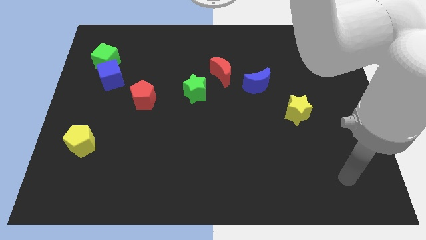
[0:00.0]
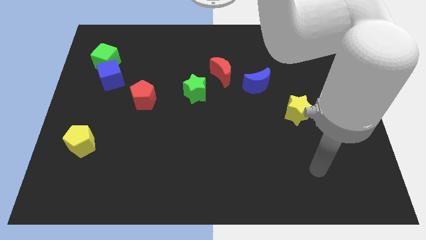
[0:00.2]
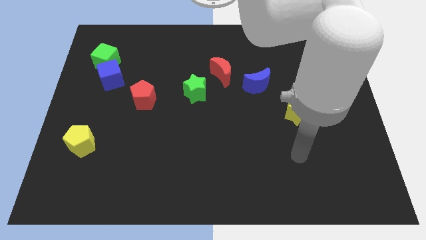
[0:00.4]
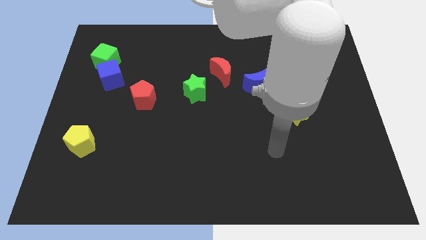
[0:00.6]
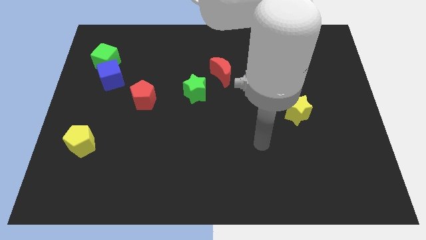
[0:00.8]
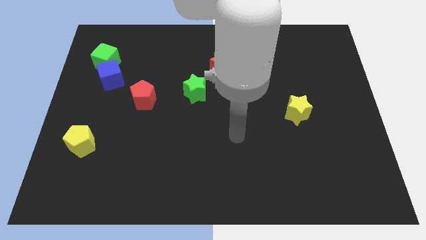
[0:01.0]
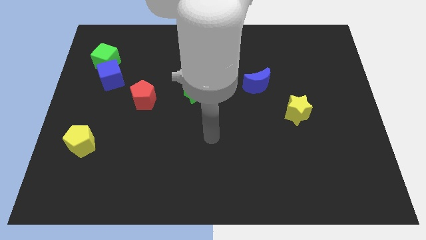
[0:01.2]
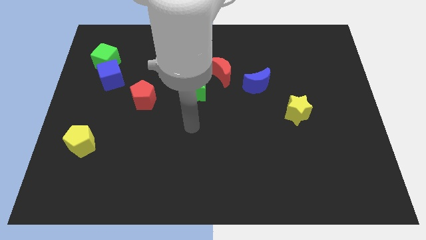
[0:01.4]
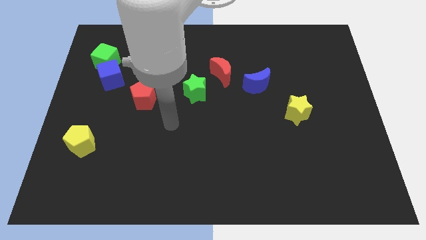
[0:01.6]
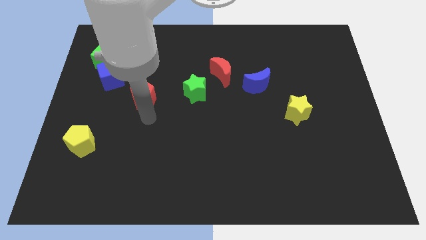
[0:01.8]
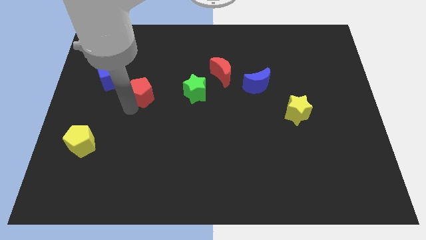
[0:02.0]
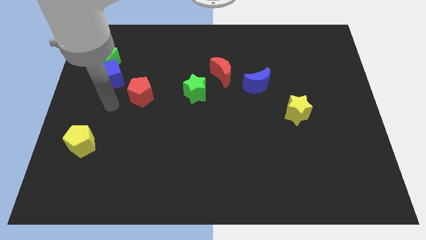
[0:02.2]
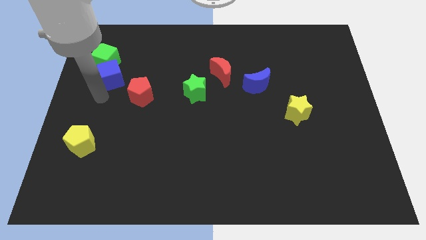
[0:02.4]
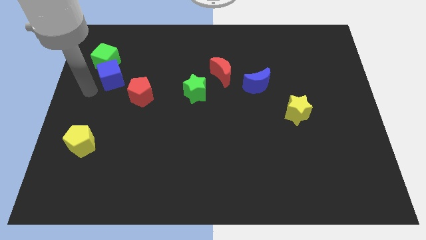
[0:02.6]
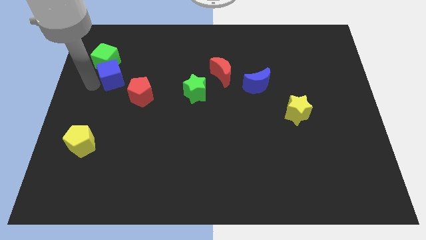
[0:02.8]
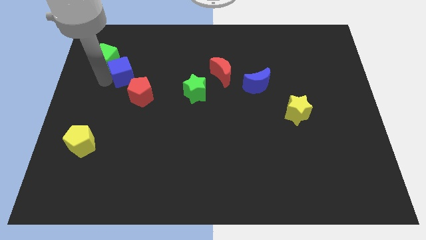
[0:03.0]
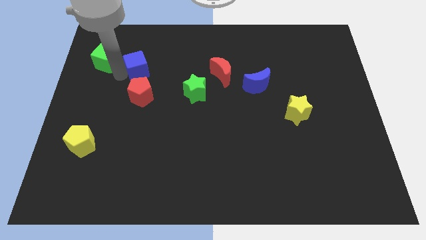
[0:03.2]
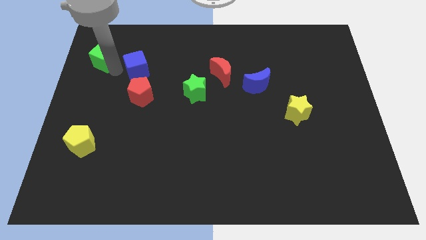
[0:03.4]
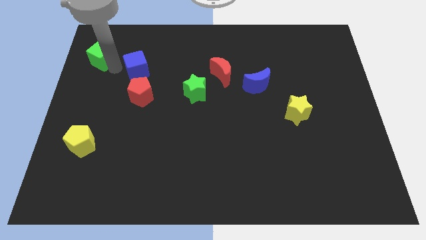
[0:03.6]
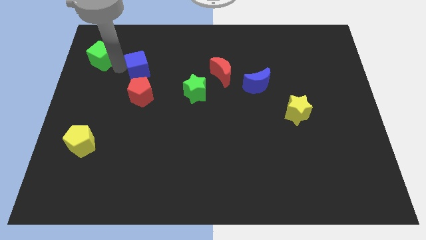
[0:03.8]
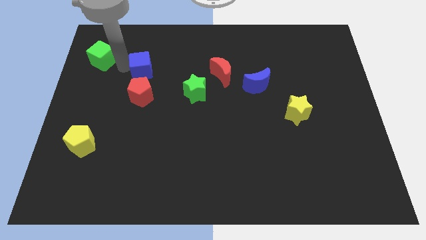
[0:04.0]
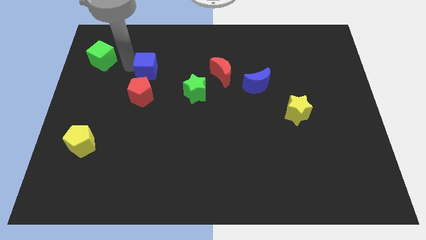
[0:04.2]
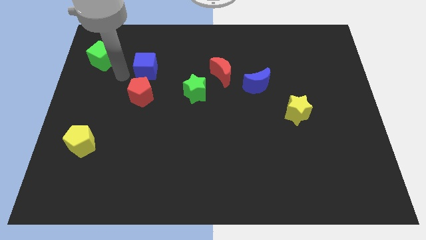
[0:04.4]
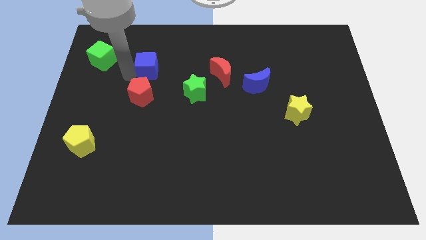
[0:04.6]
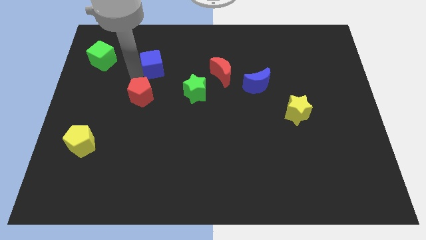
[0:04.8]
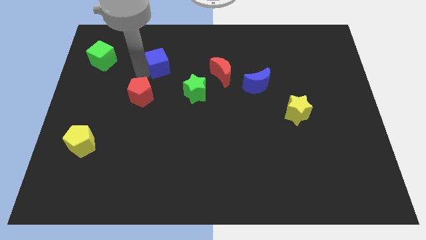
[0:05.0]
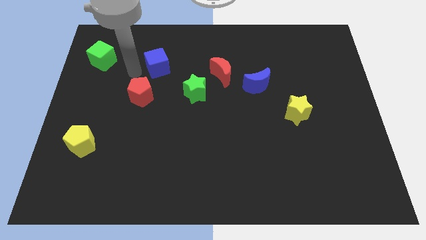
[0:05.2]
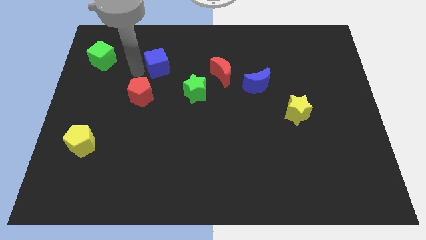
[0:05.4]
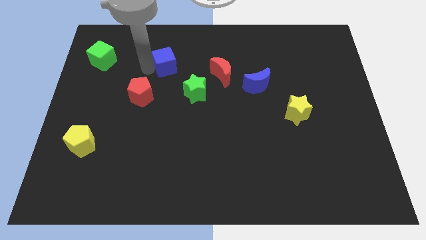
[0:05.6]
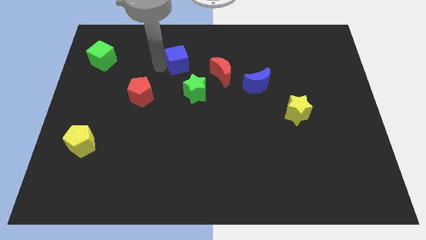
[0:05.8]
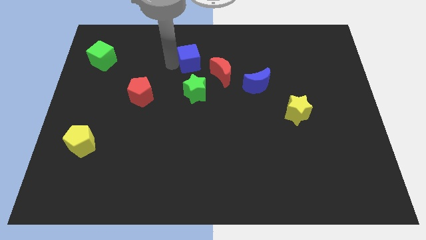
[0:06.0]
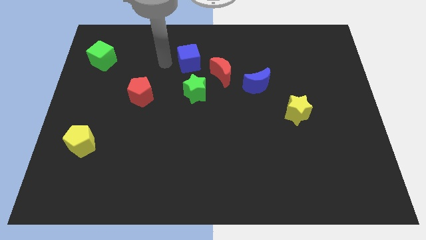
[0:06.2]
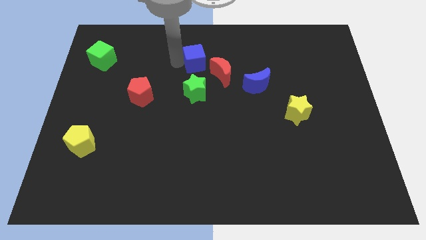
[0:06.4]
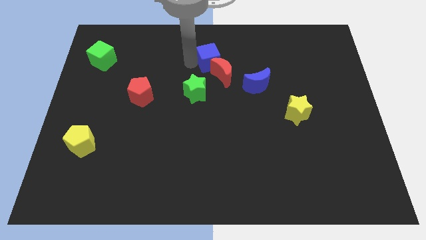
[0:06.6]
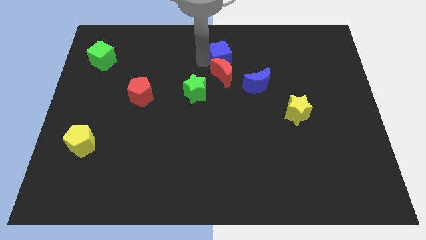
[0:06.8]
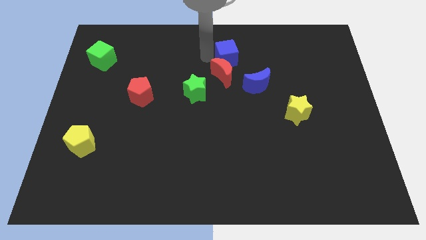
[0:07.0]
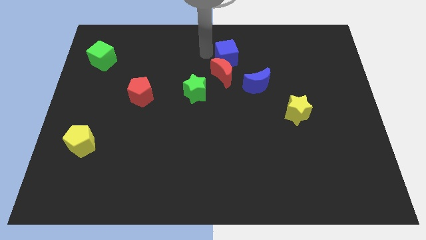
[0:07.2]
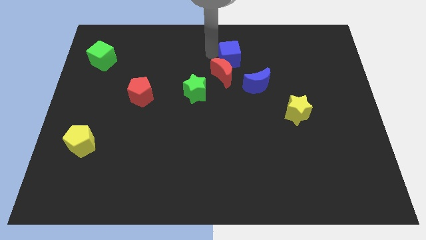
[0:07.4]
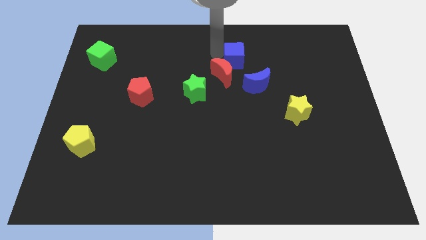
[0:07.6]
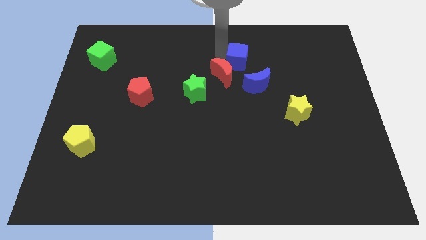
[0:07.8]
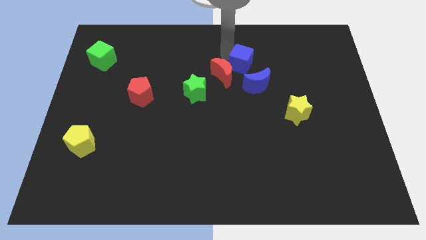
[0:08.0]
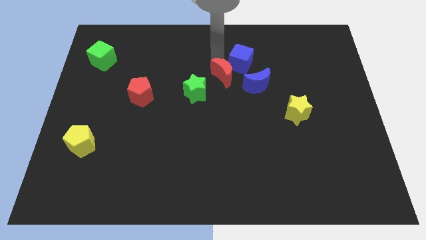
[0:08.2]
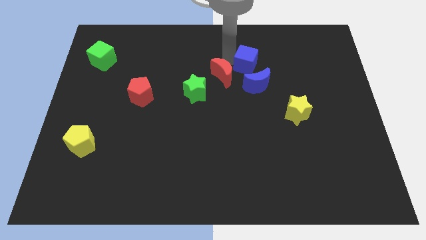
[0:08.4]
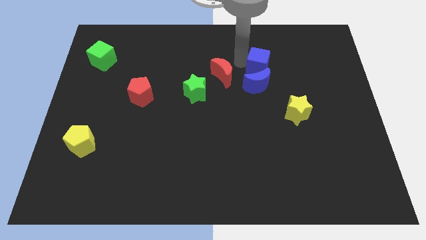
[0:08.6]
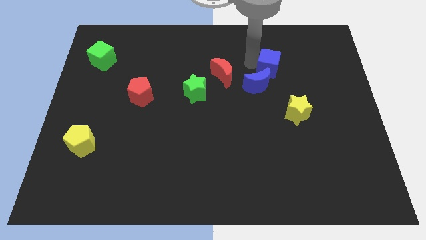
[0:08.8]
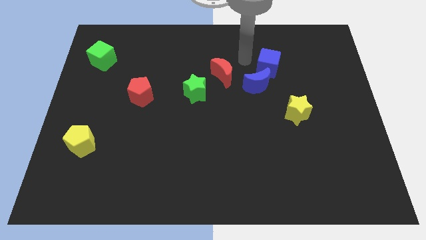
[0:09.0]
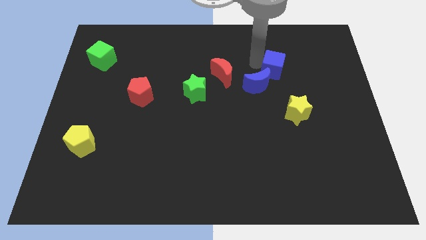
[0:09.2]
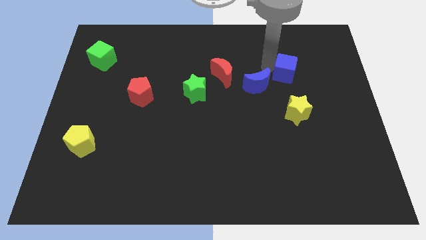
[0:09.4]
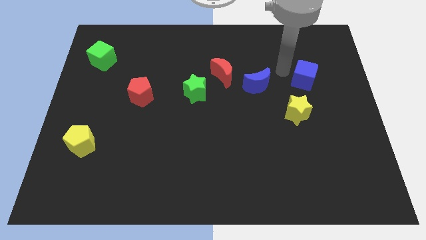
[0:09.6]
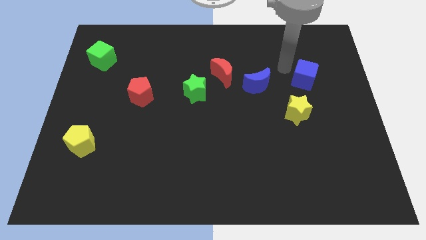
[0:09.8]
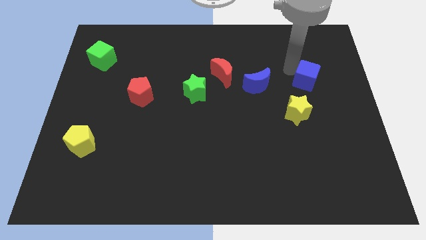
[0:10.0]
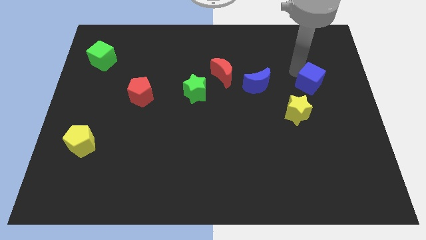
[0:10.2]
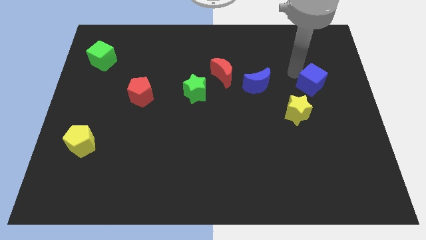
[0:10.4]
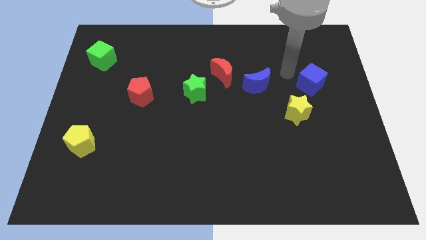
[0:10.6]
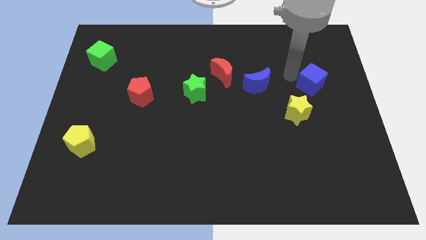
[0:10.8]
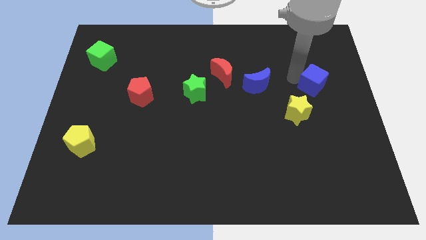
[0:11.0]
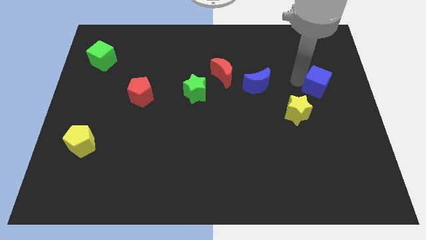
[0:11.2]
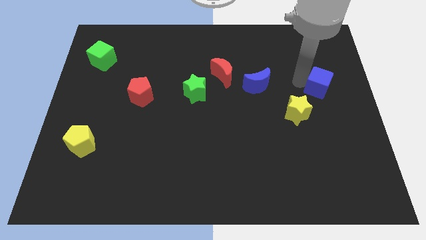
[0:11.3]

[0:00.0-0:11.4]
move the blue cube to the center right

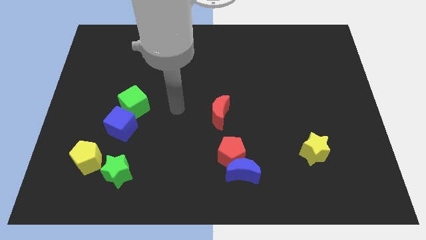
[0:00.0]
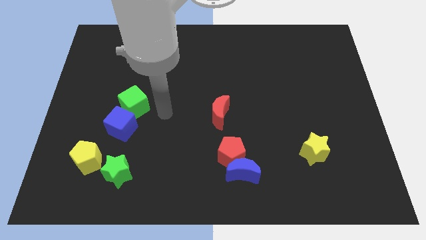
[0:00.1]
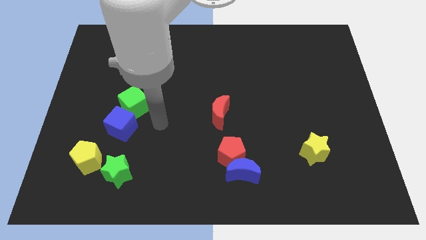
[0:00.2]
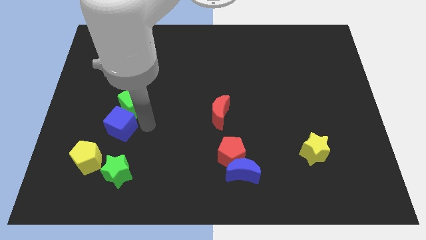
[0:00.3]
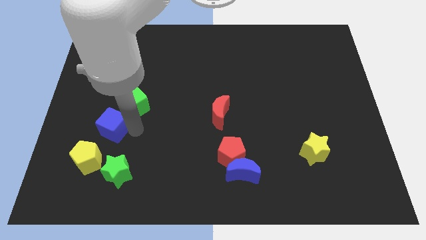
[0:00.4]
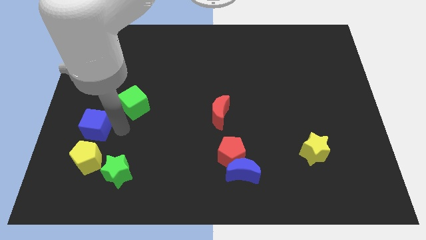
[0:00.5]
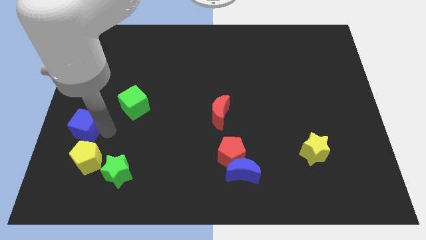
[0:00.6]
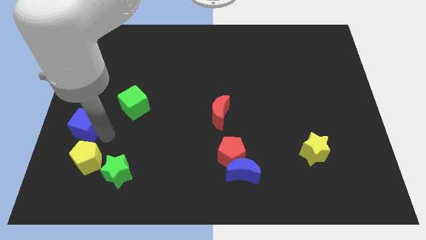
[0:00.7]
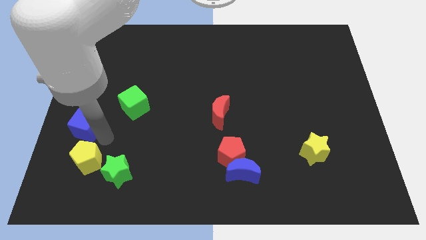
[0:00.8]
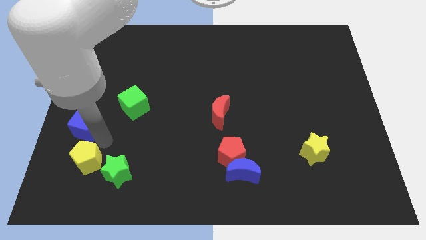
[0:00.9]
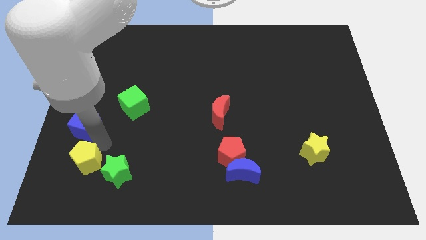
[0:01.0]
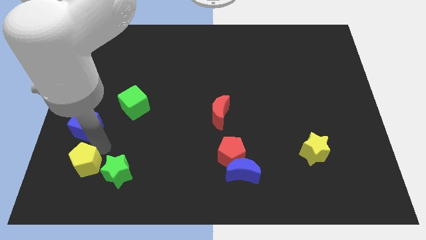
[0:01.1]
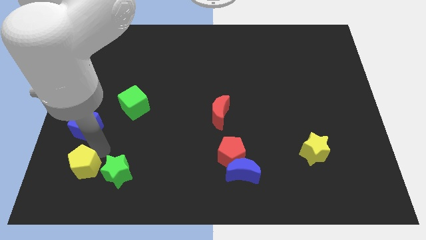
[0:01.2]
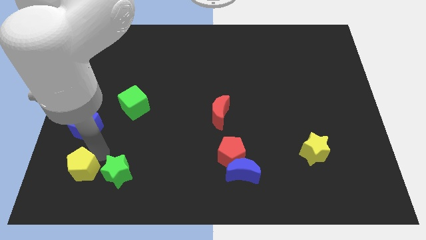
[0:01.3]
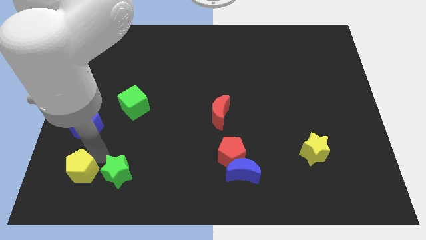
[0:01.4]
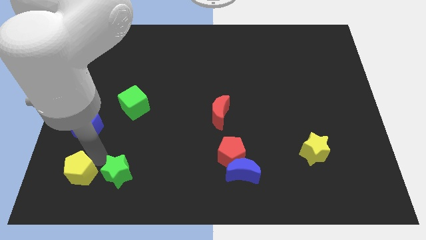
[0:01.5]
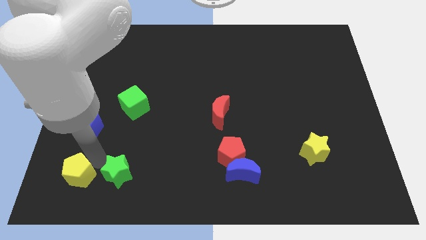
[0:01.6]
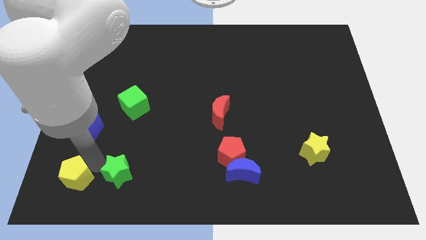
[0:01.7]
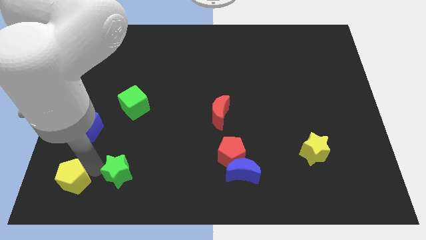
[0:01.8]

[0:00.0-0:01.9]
push the yellow pentagon to the bottom left of the board

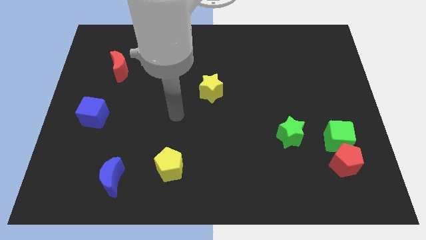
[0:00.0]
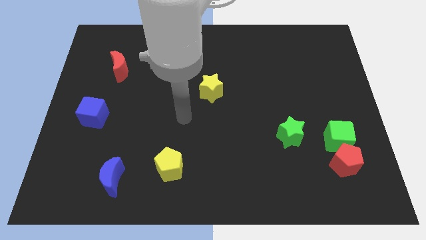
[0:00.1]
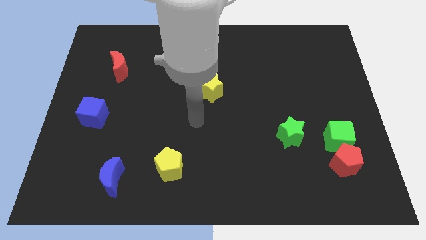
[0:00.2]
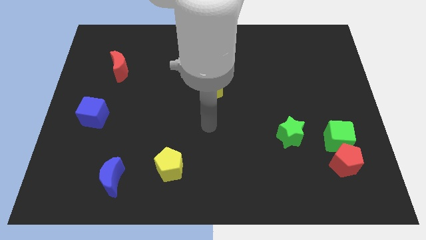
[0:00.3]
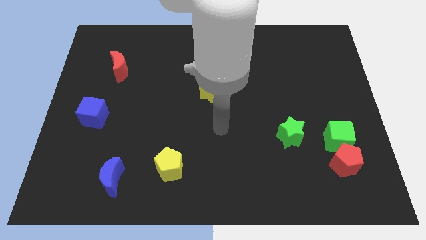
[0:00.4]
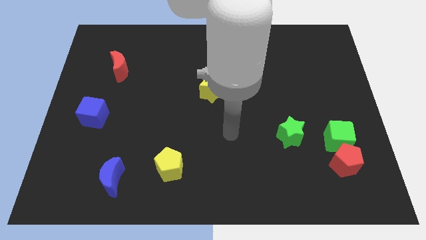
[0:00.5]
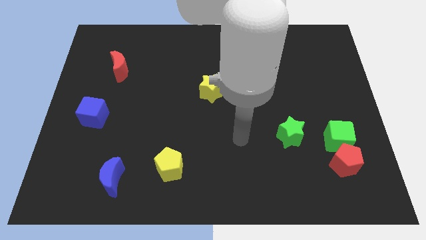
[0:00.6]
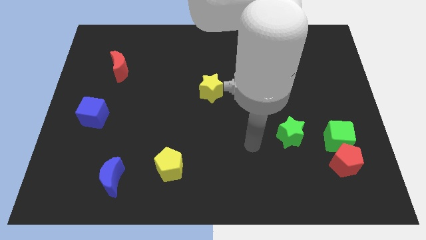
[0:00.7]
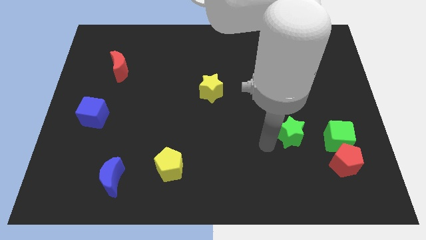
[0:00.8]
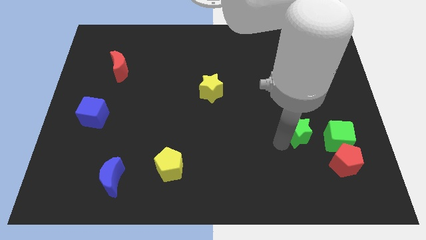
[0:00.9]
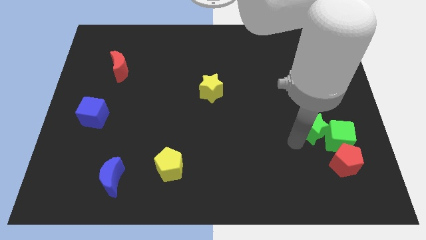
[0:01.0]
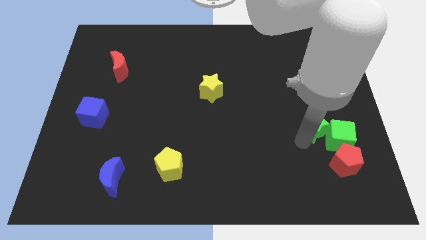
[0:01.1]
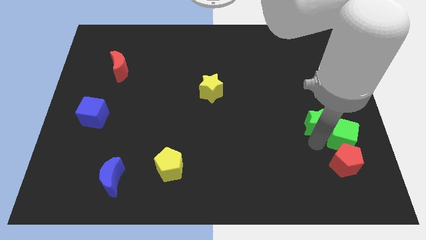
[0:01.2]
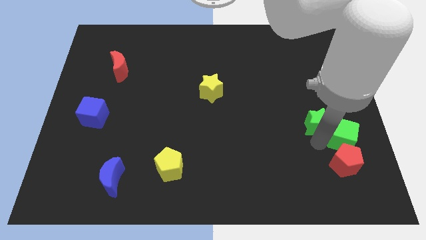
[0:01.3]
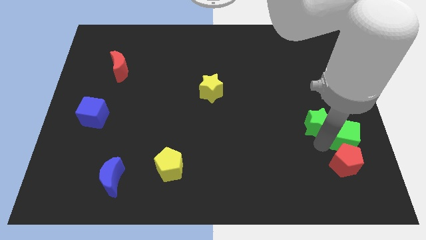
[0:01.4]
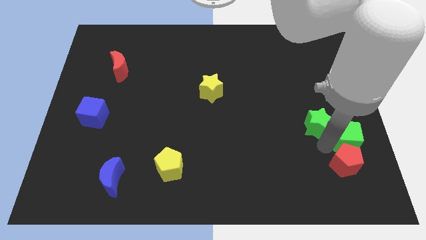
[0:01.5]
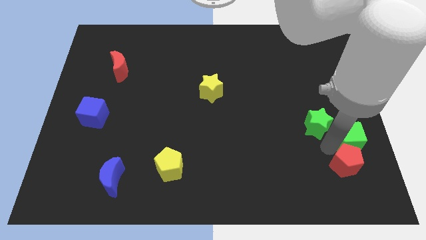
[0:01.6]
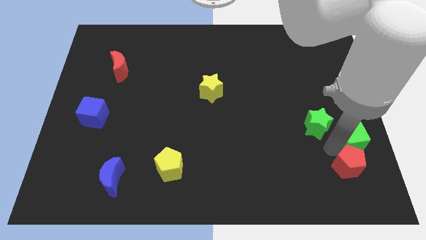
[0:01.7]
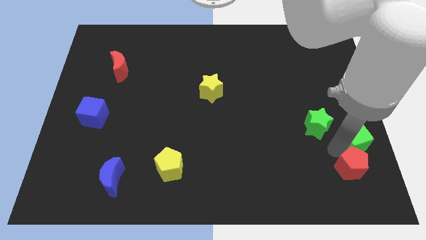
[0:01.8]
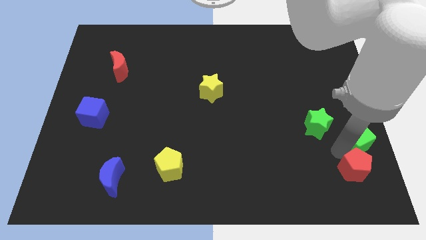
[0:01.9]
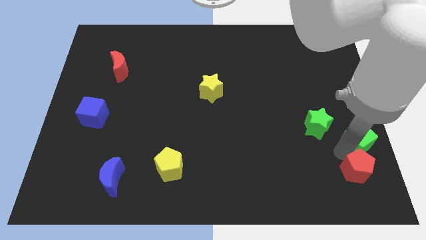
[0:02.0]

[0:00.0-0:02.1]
push the red pentagon to the lower right corner
